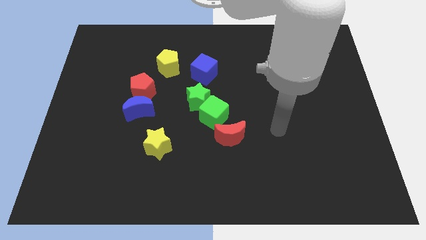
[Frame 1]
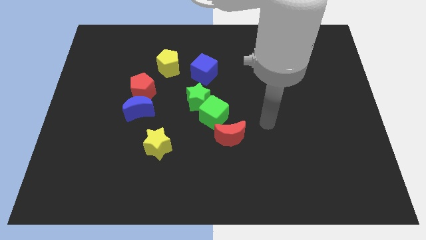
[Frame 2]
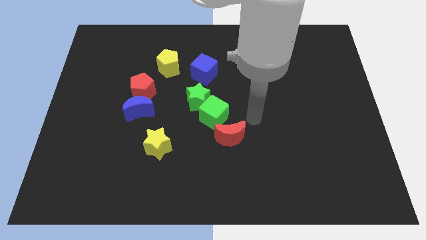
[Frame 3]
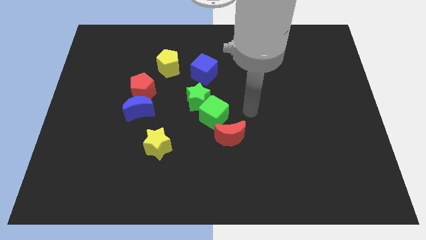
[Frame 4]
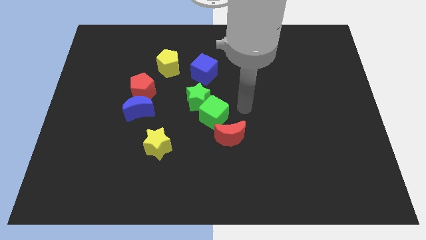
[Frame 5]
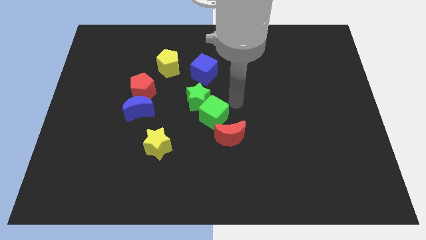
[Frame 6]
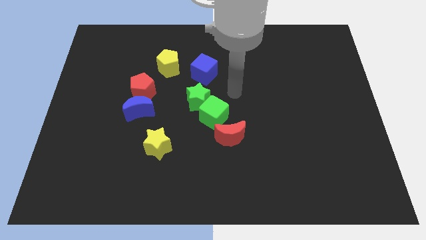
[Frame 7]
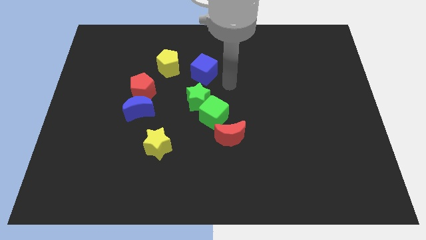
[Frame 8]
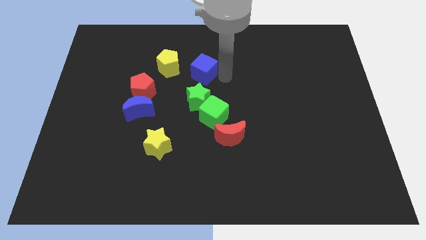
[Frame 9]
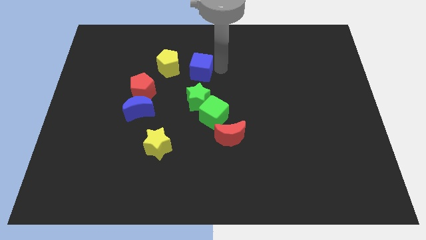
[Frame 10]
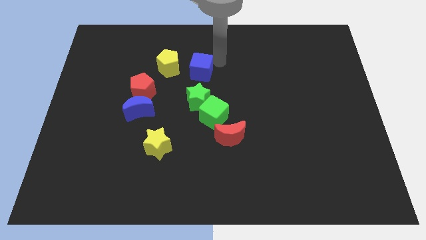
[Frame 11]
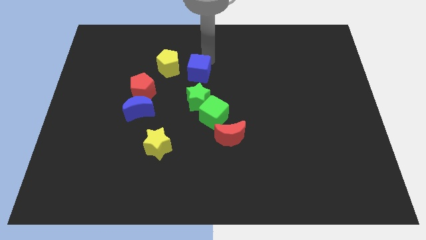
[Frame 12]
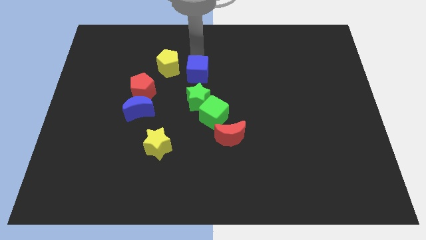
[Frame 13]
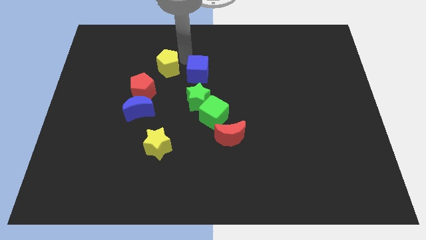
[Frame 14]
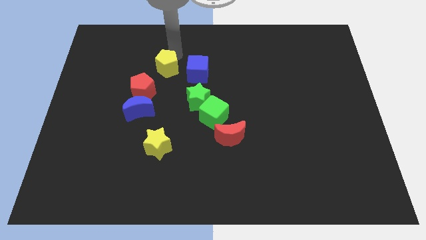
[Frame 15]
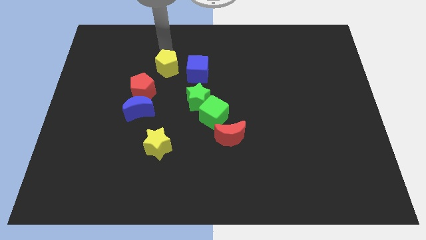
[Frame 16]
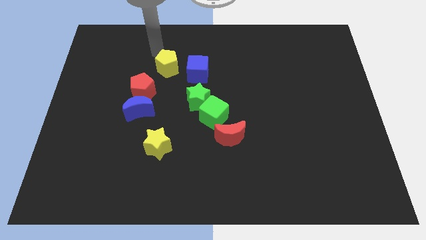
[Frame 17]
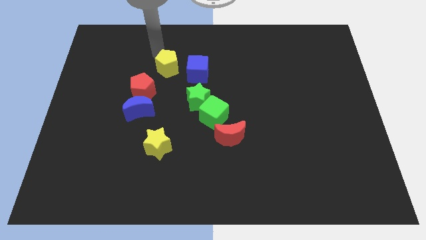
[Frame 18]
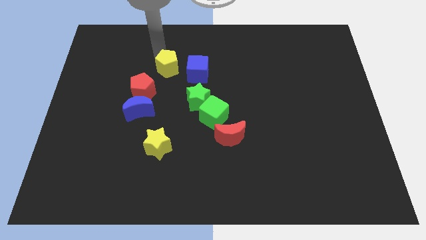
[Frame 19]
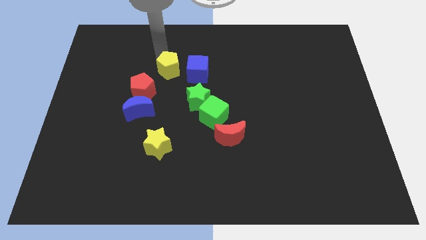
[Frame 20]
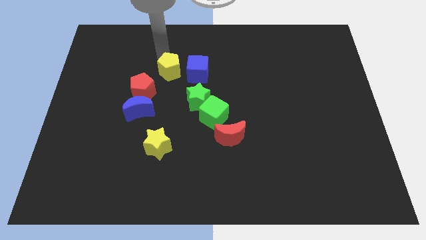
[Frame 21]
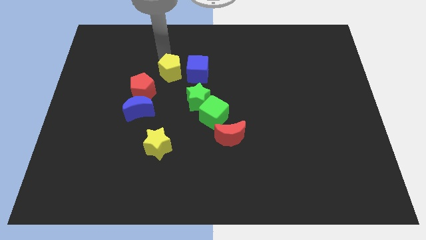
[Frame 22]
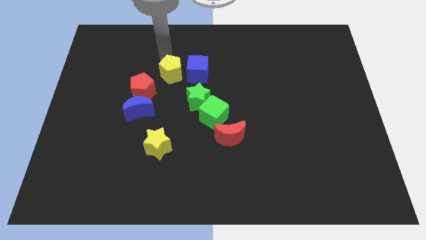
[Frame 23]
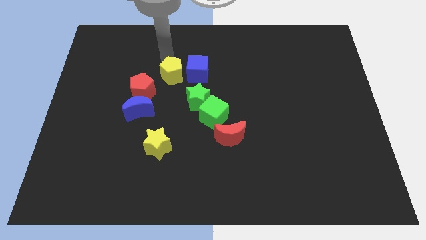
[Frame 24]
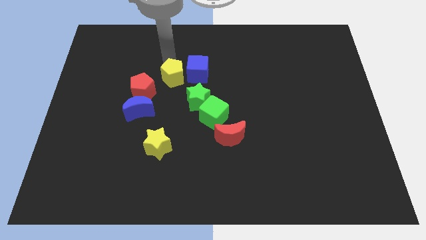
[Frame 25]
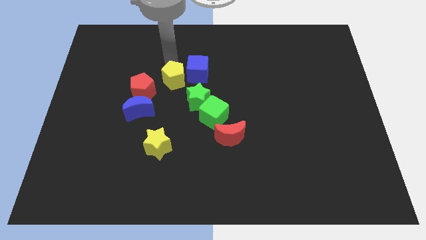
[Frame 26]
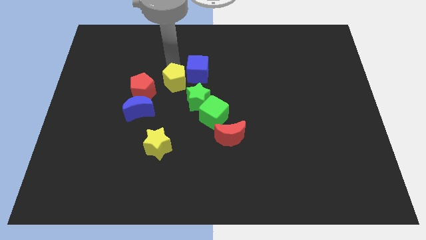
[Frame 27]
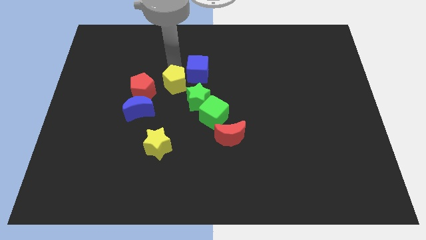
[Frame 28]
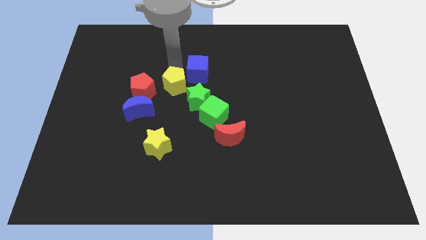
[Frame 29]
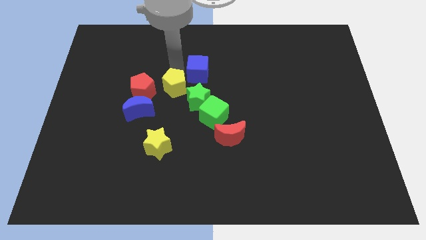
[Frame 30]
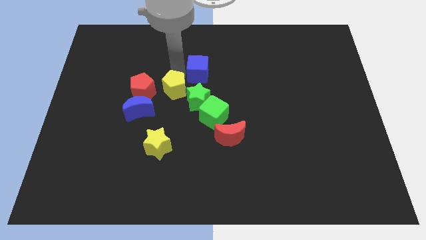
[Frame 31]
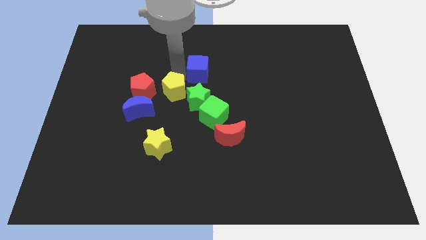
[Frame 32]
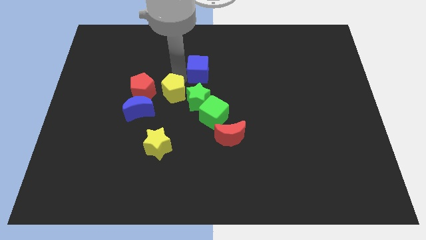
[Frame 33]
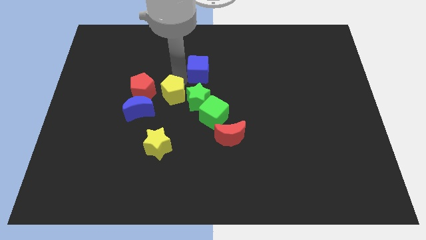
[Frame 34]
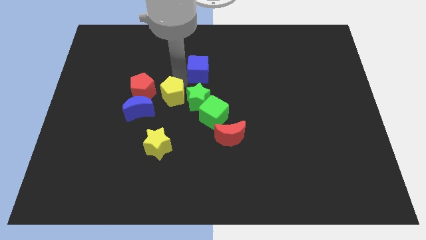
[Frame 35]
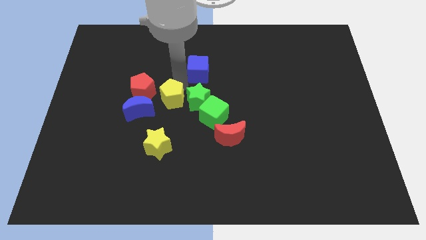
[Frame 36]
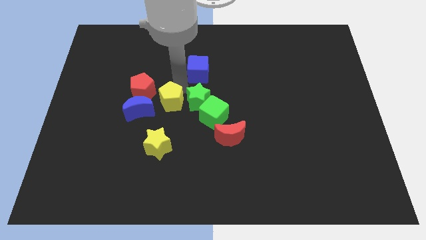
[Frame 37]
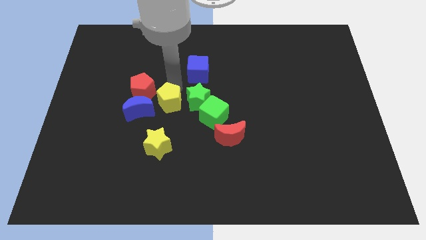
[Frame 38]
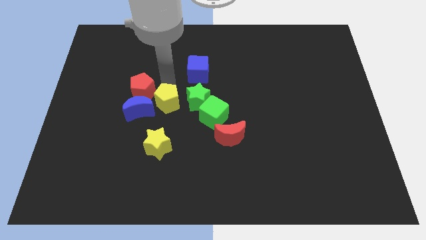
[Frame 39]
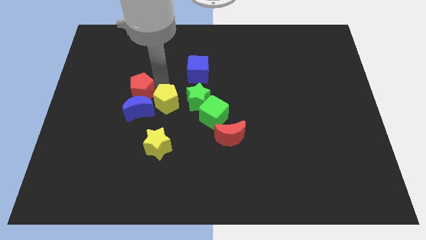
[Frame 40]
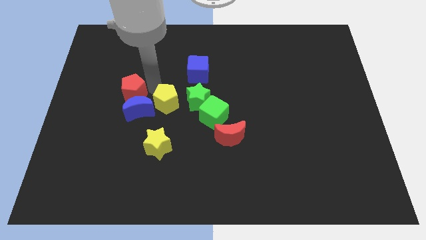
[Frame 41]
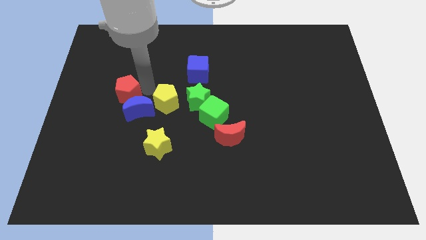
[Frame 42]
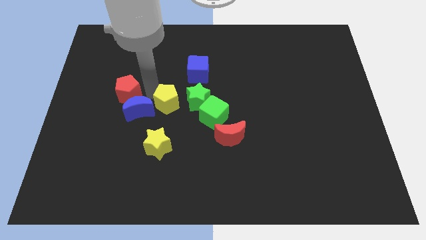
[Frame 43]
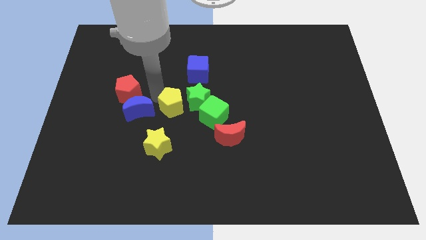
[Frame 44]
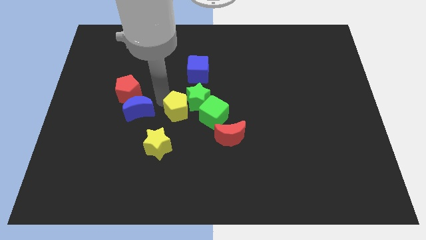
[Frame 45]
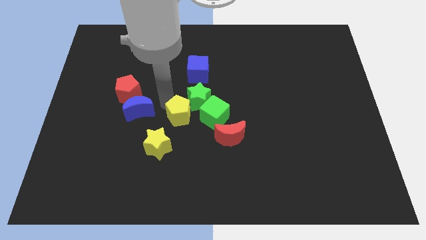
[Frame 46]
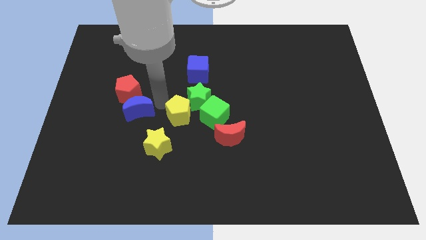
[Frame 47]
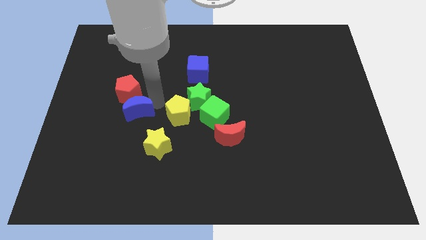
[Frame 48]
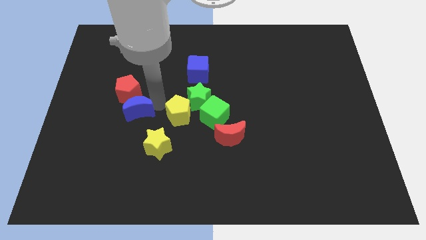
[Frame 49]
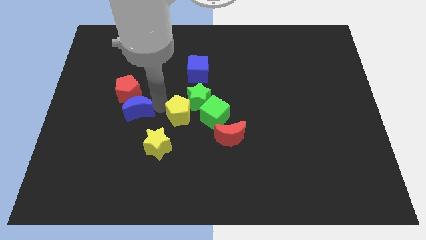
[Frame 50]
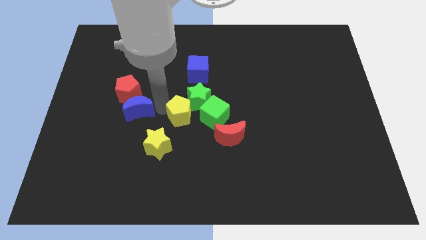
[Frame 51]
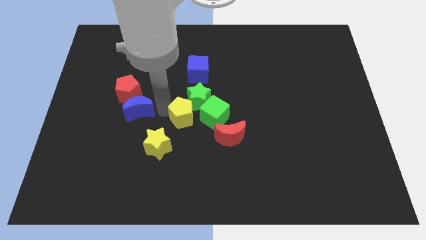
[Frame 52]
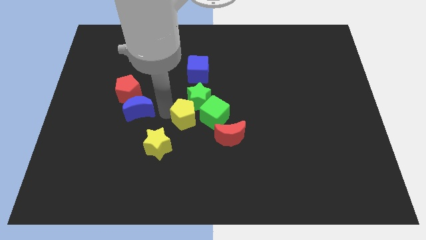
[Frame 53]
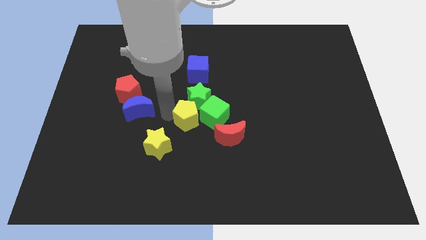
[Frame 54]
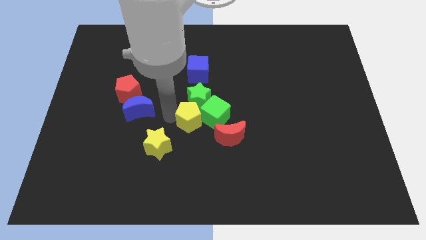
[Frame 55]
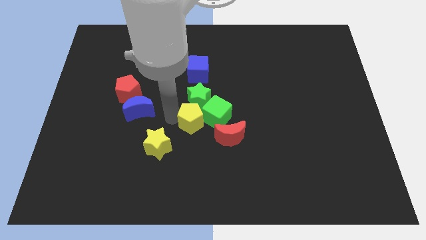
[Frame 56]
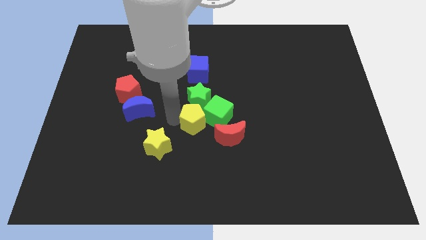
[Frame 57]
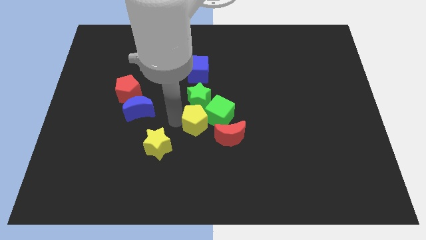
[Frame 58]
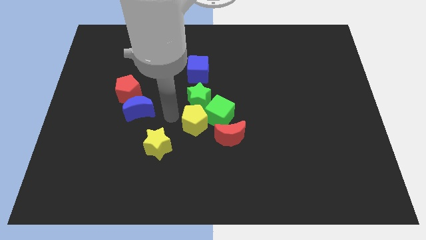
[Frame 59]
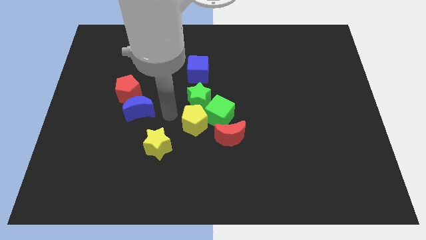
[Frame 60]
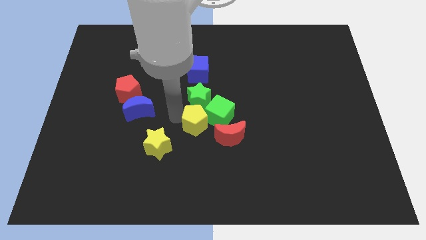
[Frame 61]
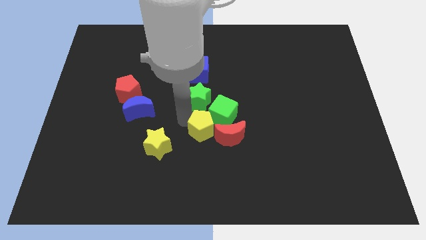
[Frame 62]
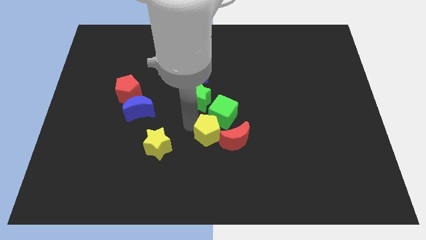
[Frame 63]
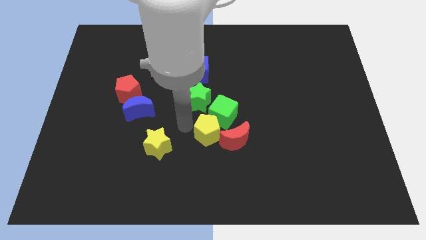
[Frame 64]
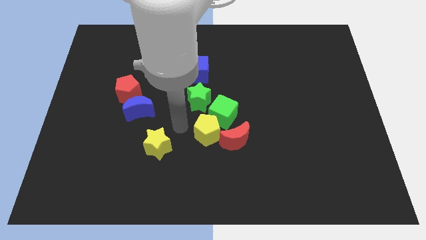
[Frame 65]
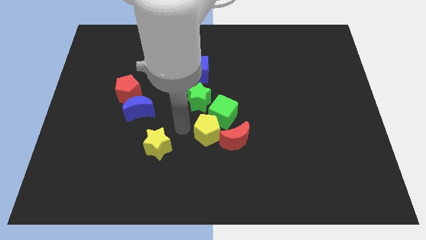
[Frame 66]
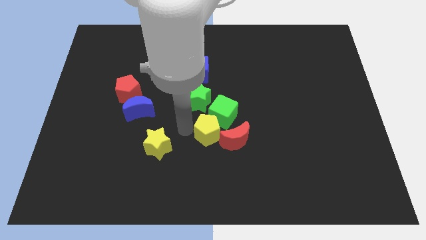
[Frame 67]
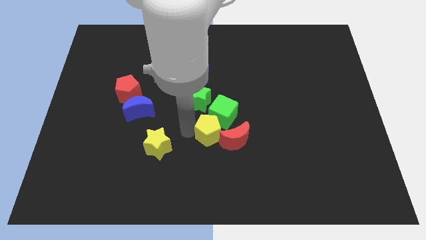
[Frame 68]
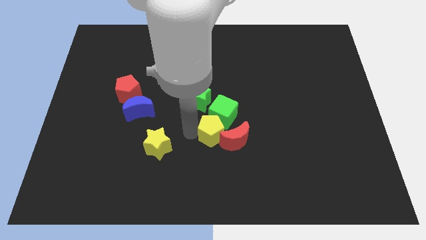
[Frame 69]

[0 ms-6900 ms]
move the yellow pentagon to the red moon

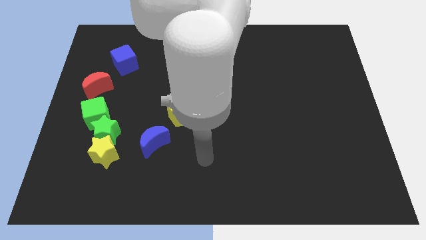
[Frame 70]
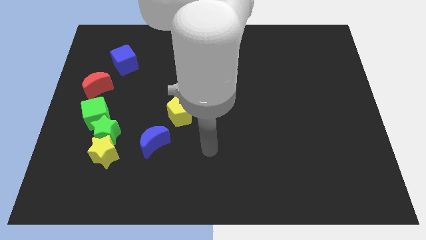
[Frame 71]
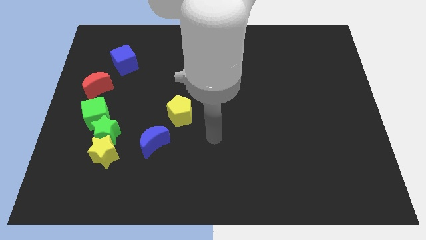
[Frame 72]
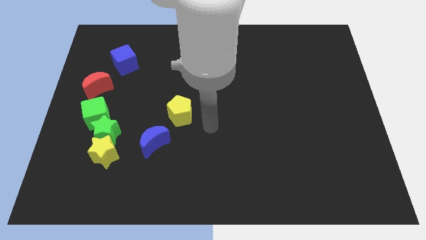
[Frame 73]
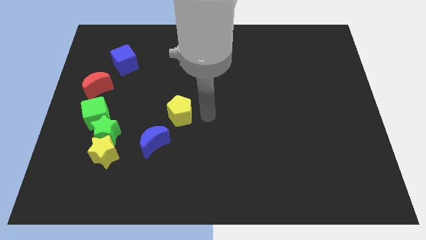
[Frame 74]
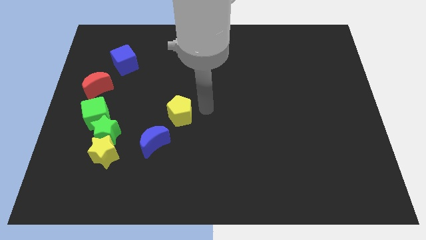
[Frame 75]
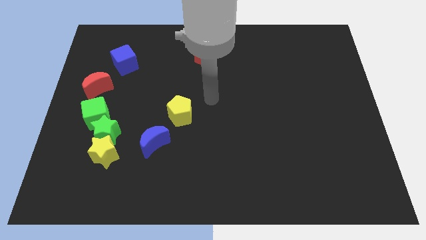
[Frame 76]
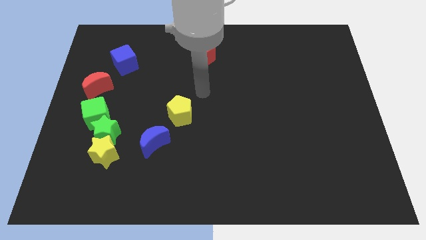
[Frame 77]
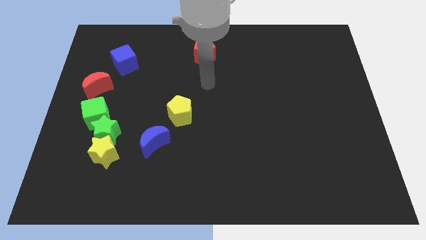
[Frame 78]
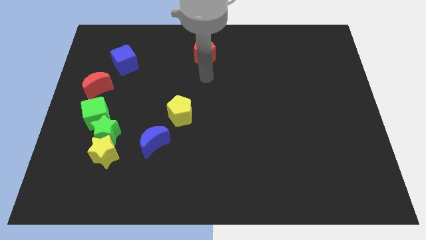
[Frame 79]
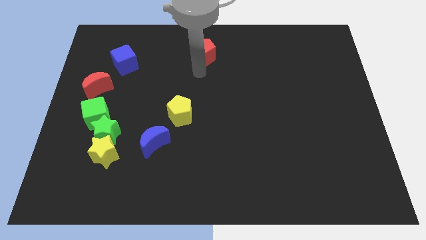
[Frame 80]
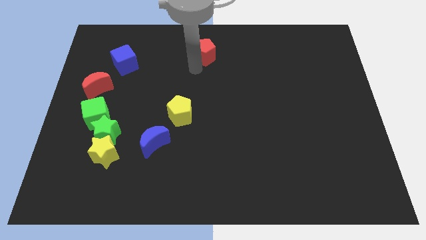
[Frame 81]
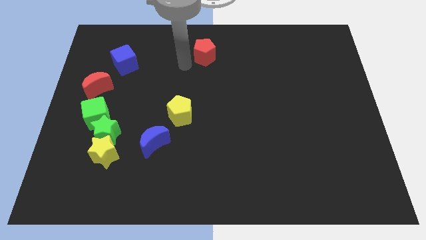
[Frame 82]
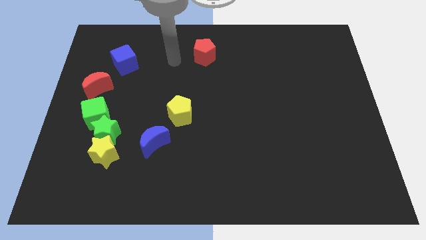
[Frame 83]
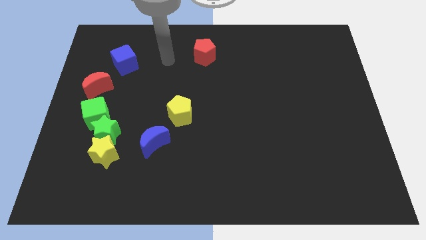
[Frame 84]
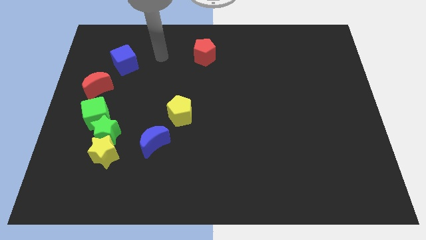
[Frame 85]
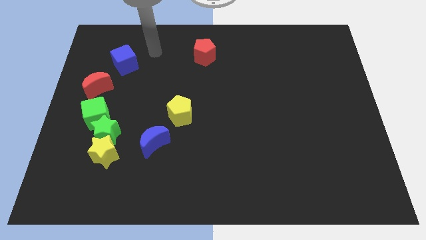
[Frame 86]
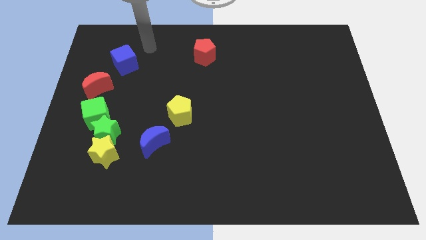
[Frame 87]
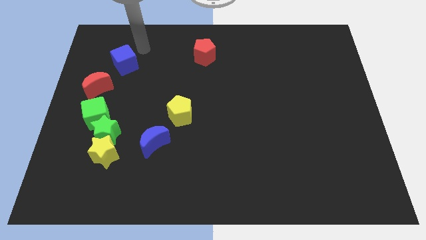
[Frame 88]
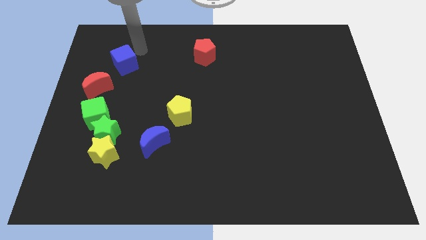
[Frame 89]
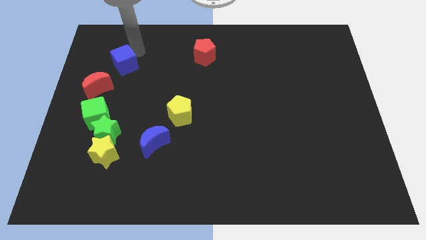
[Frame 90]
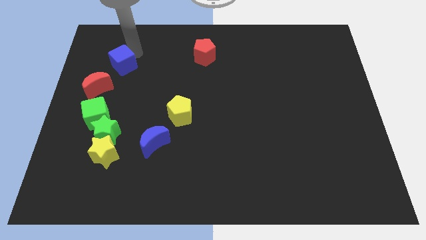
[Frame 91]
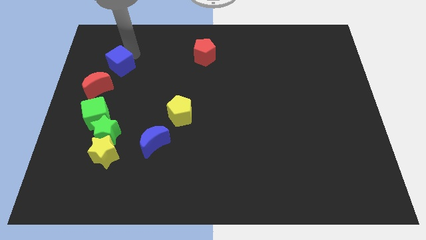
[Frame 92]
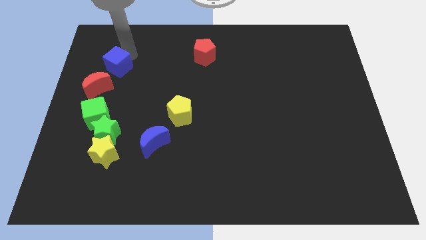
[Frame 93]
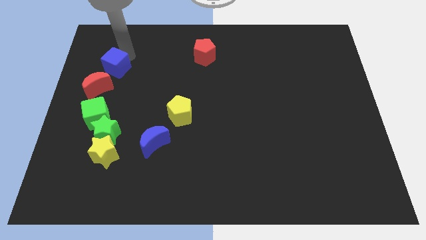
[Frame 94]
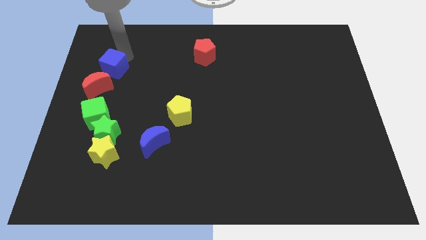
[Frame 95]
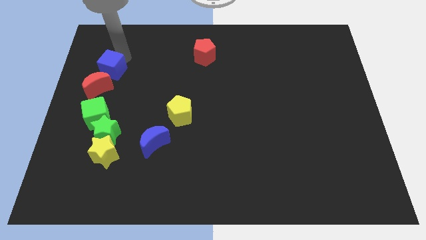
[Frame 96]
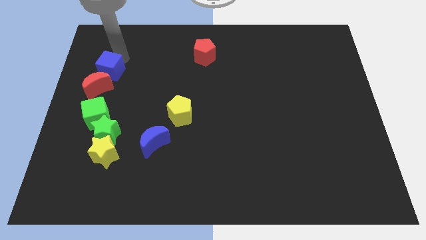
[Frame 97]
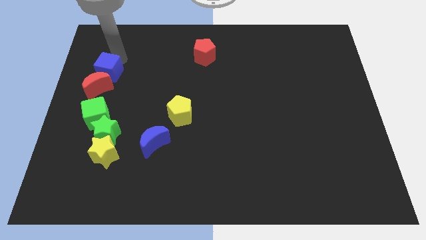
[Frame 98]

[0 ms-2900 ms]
move the blue cube to the red moon
